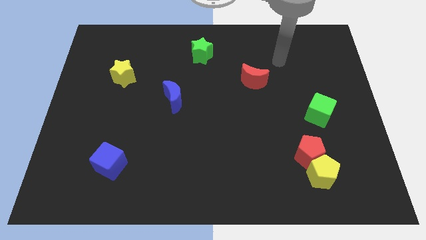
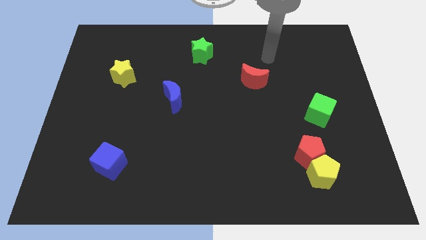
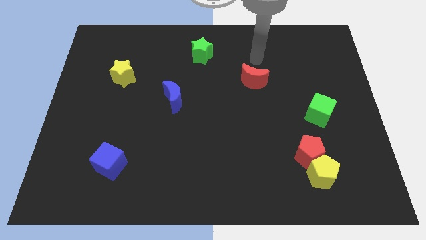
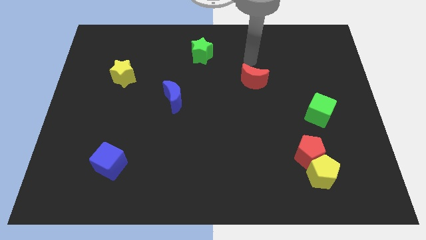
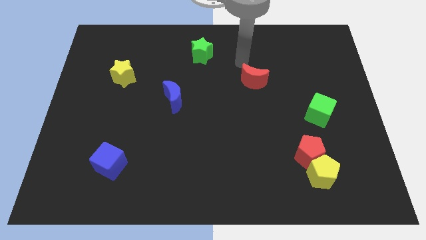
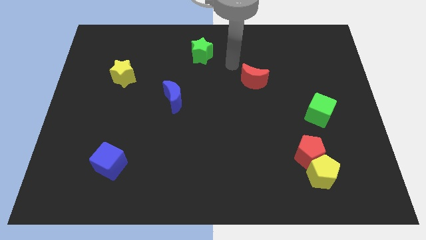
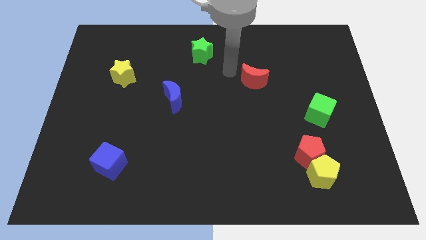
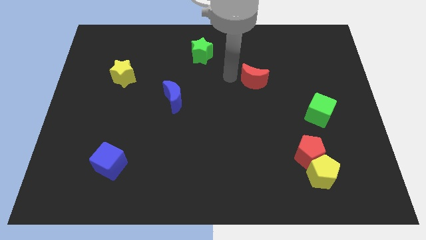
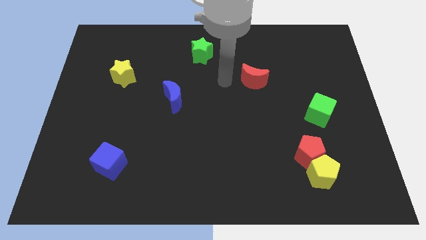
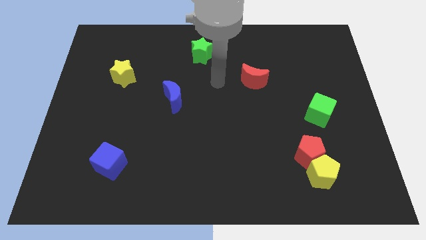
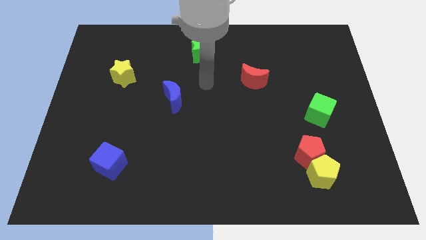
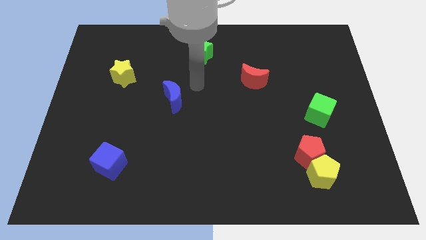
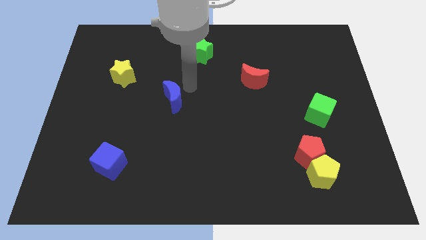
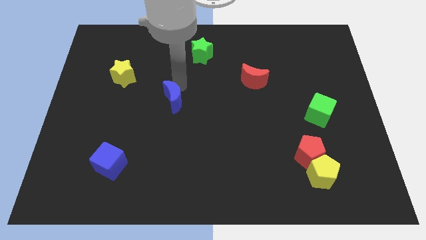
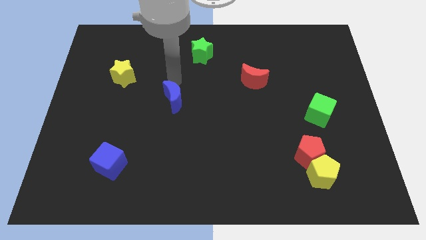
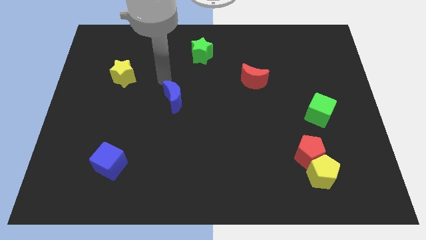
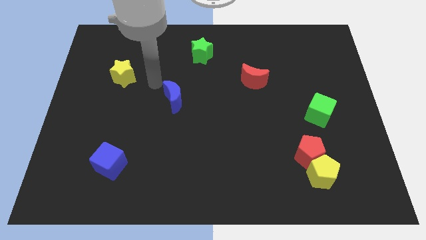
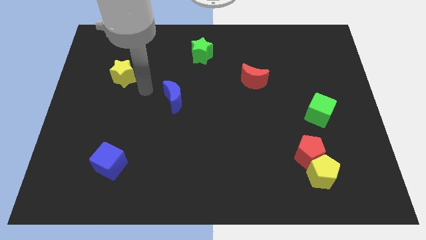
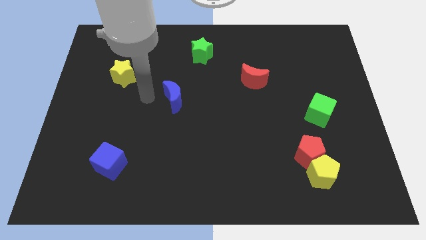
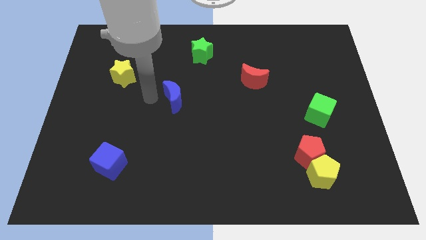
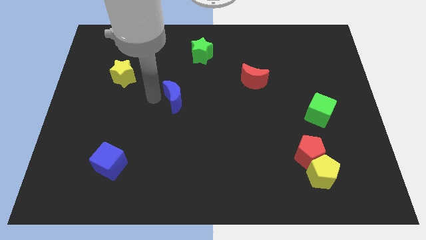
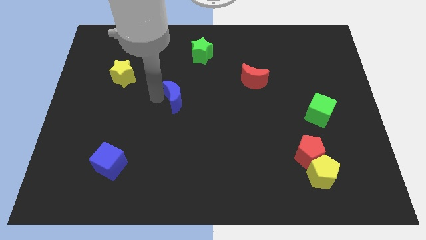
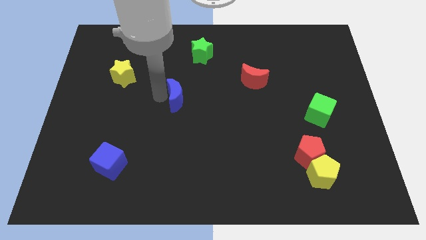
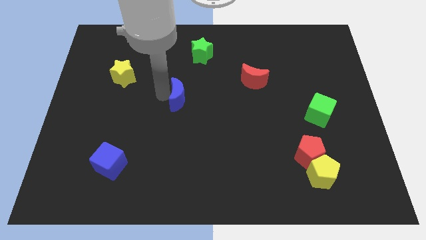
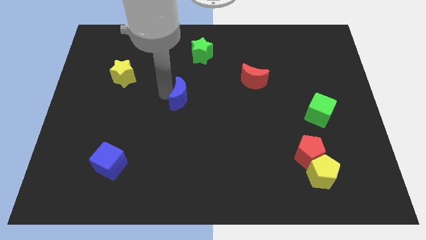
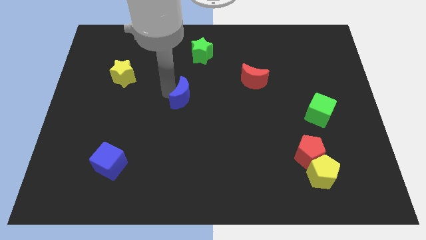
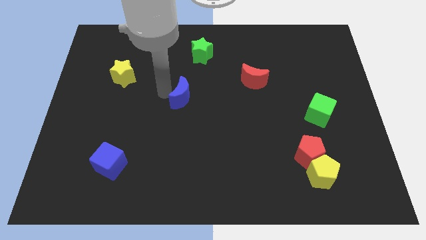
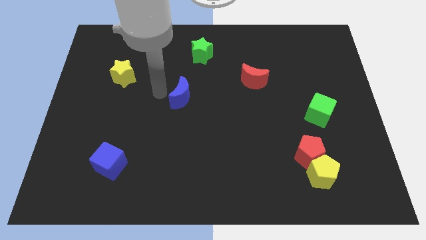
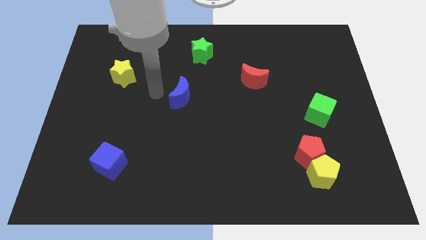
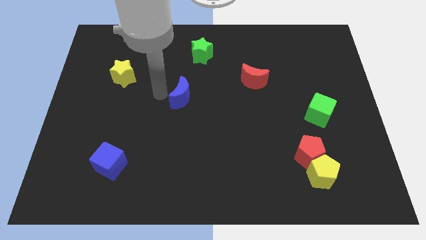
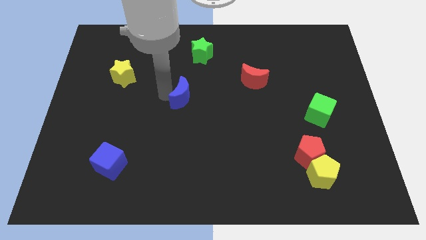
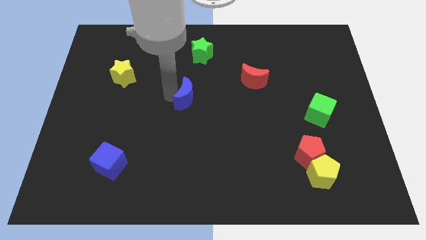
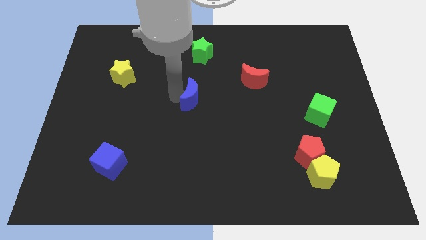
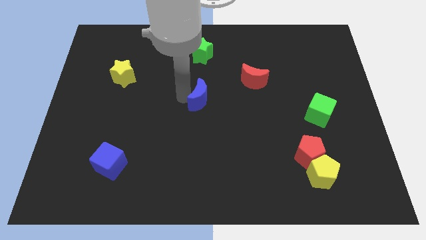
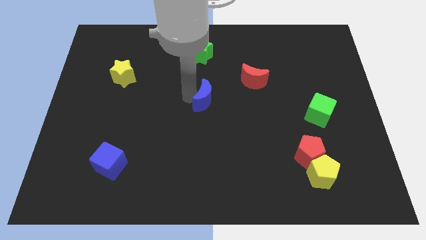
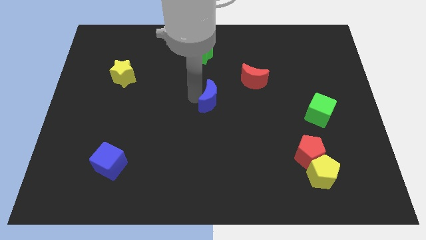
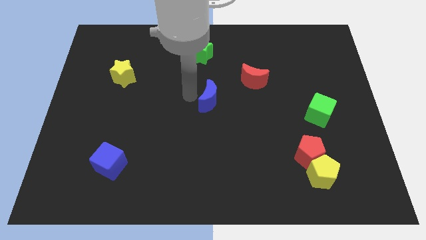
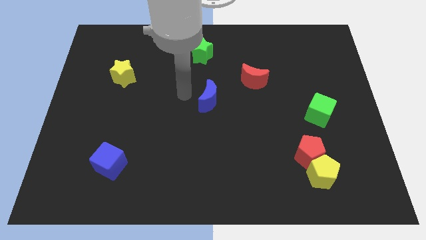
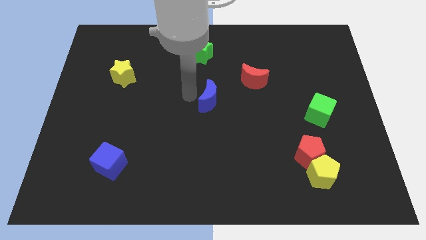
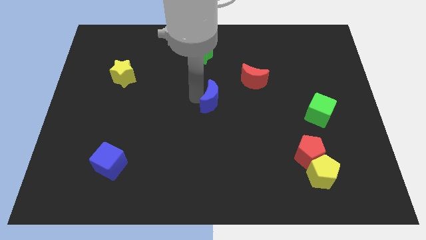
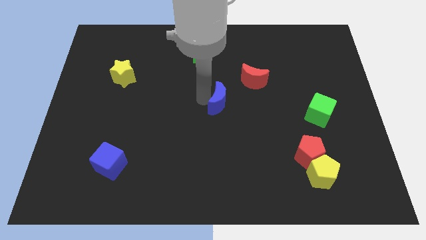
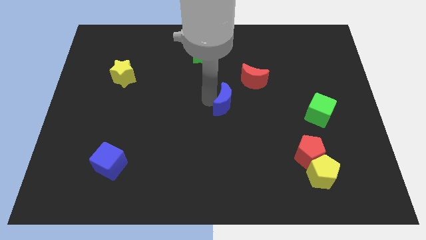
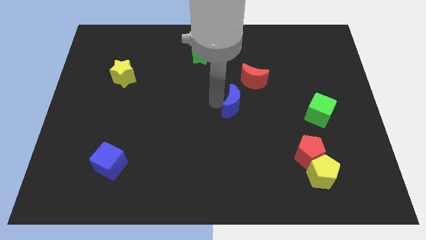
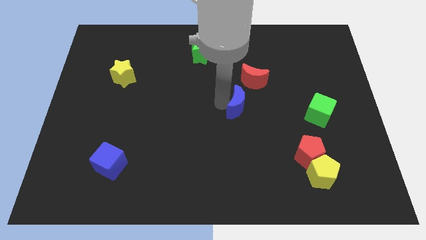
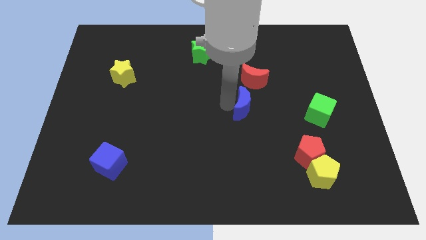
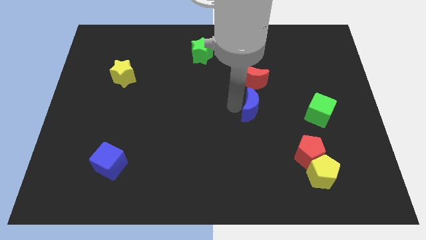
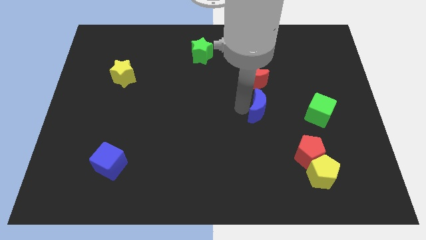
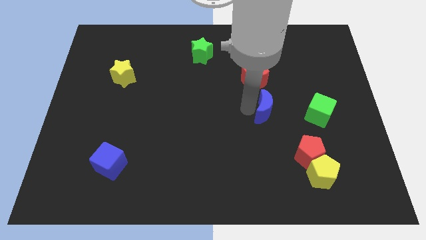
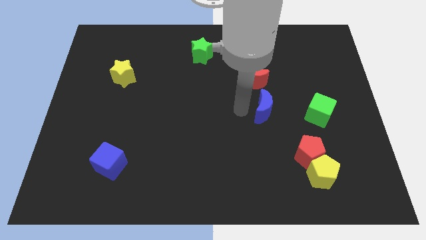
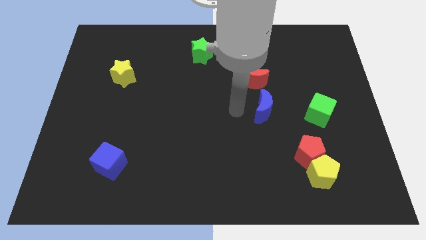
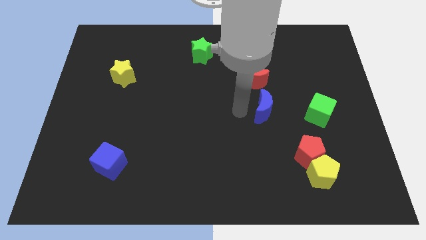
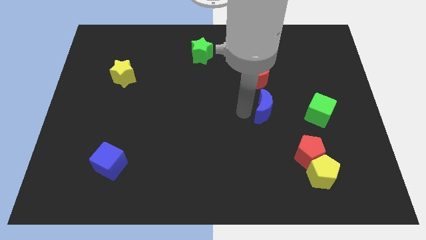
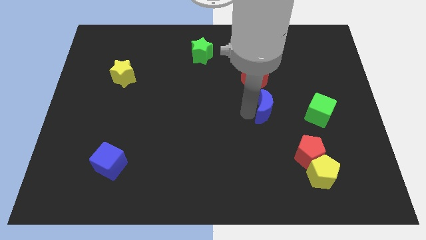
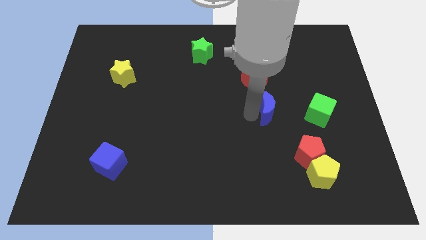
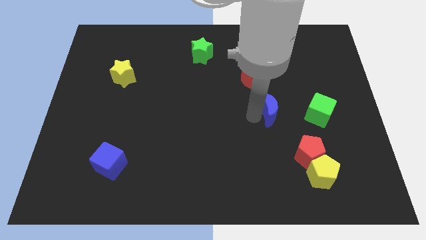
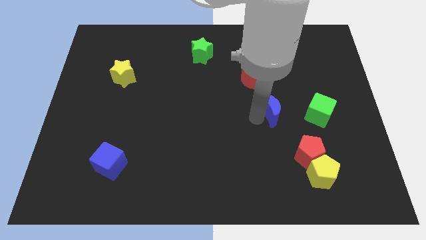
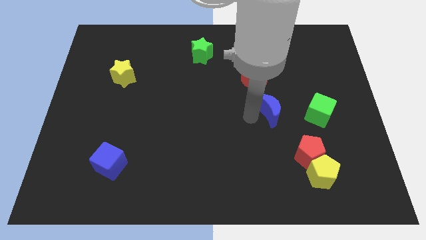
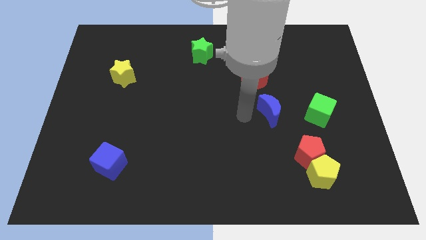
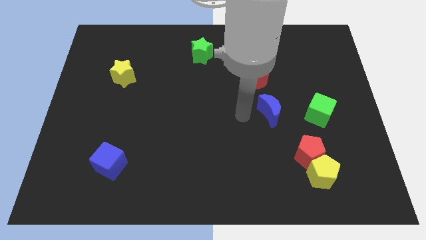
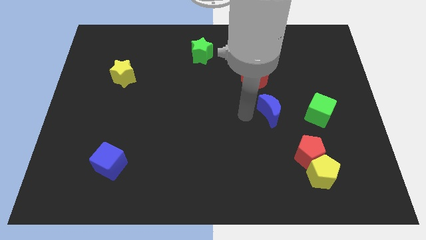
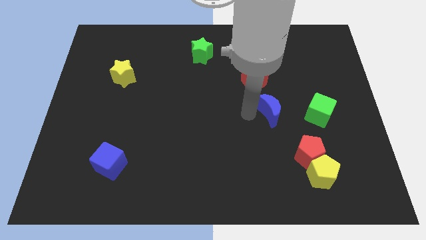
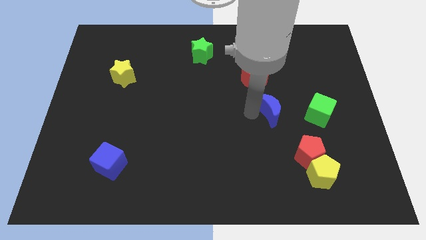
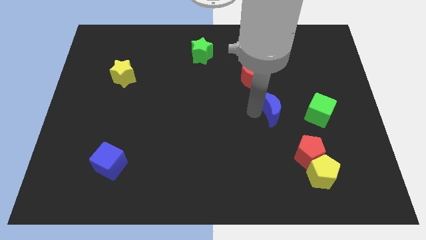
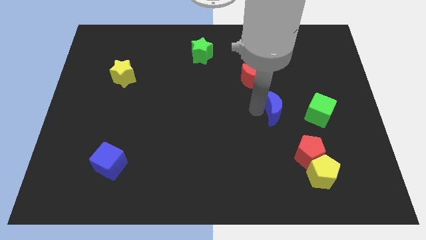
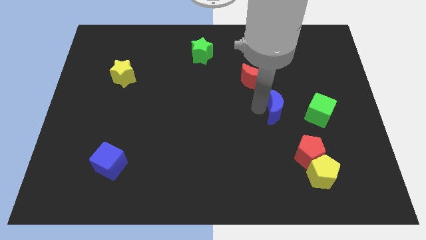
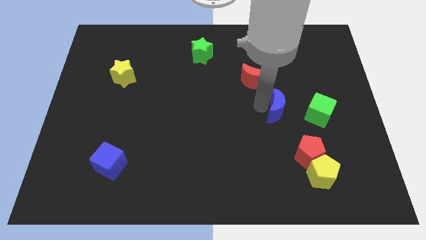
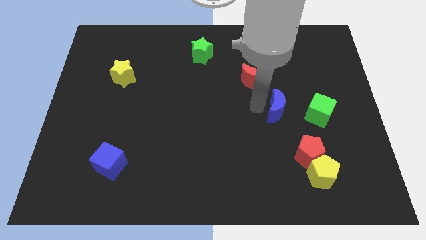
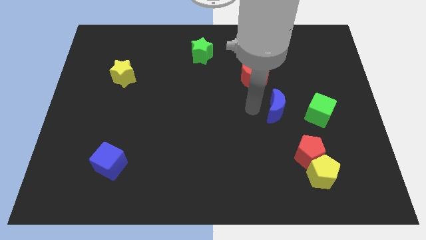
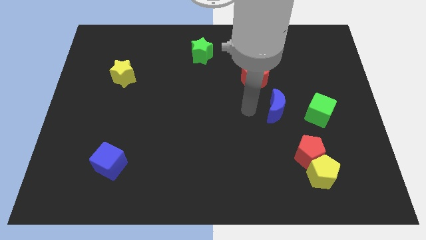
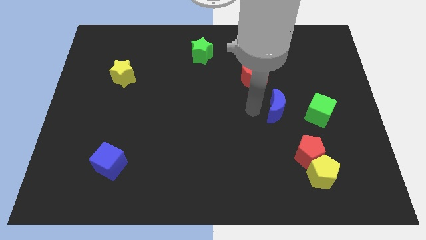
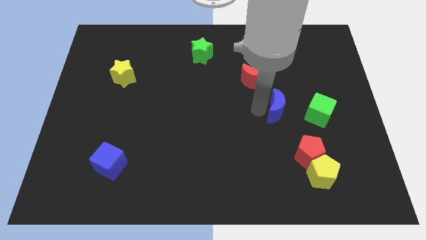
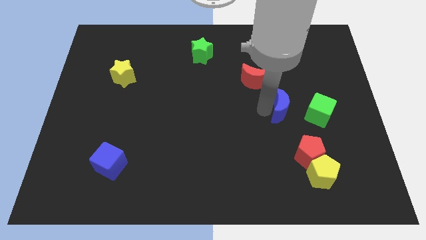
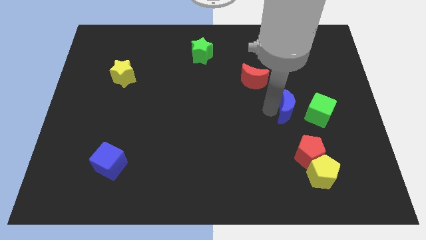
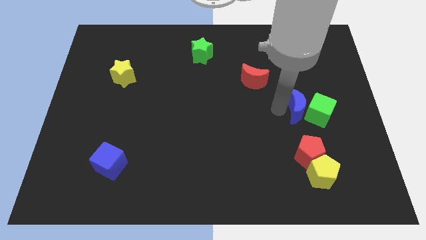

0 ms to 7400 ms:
slide the blue moon next to the green cube
